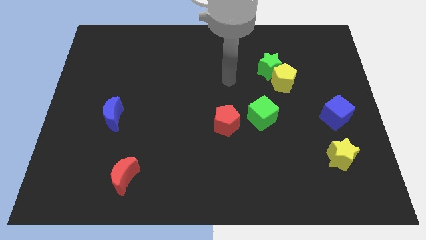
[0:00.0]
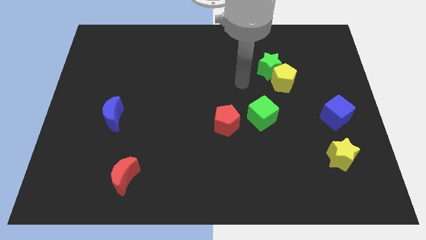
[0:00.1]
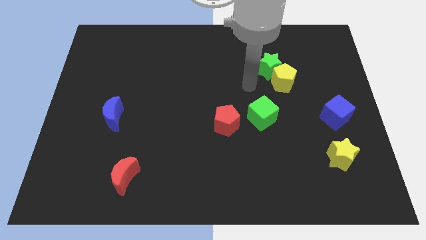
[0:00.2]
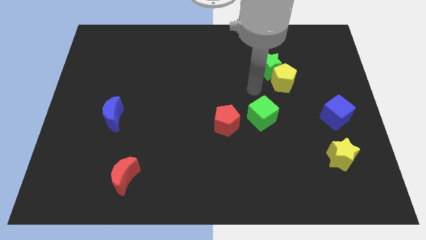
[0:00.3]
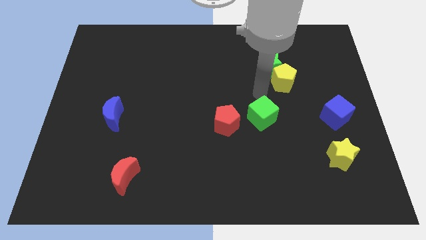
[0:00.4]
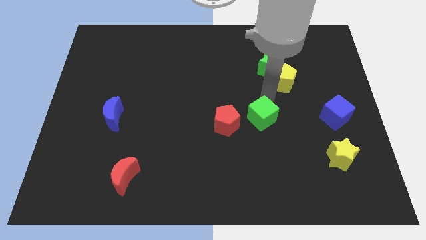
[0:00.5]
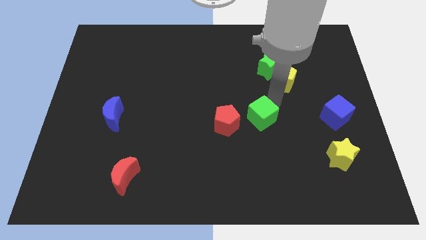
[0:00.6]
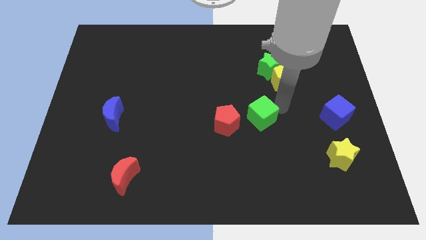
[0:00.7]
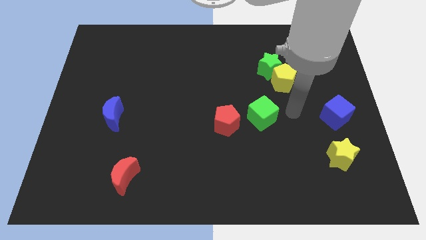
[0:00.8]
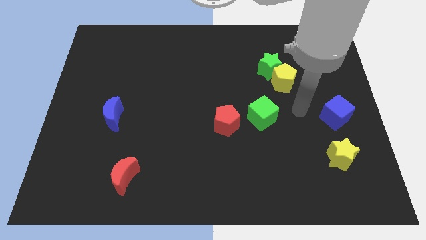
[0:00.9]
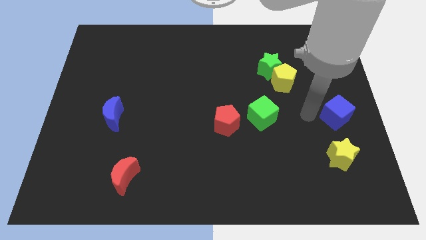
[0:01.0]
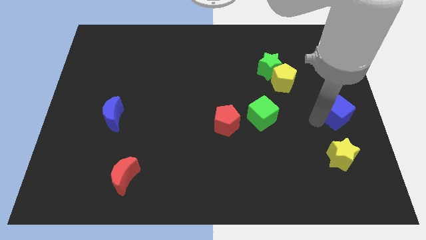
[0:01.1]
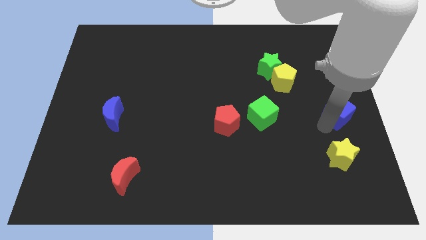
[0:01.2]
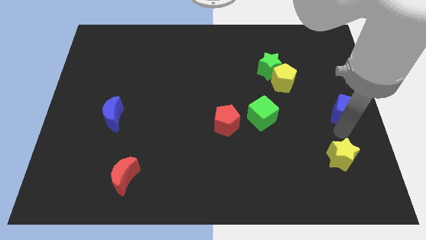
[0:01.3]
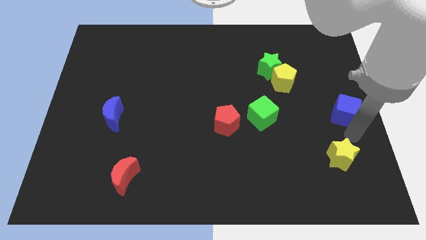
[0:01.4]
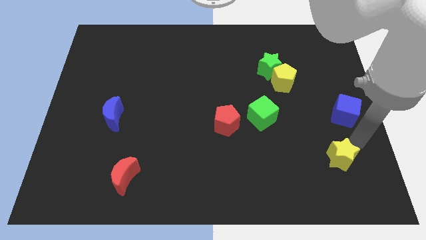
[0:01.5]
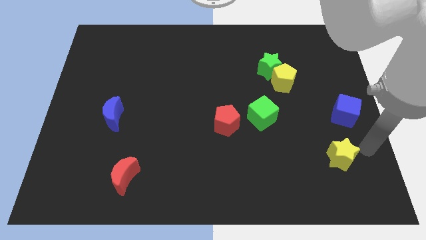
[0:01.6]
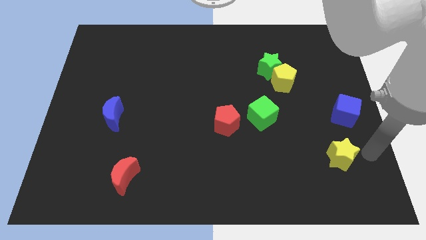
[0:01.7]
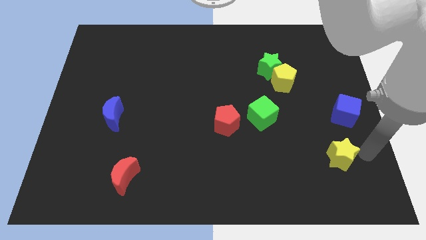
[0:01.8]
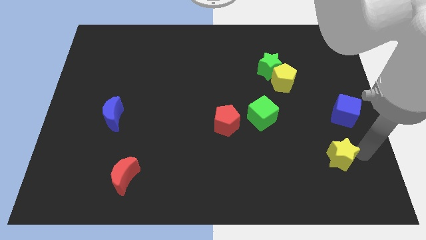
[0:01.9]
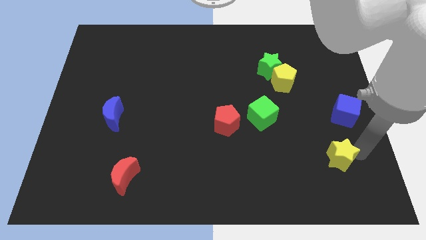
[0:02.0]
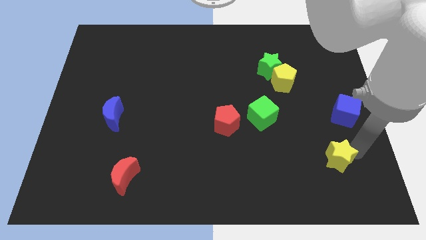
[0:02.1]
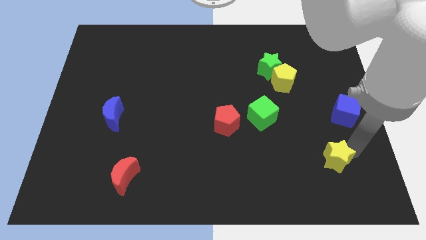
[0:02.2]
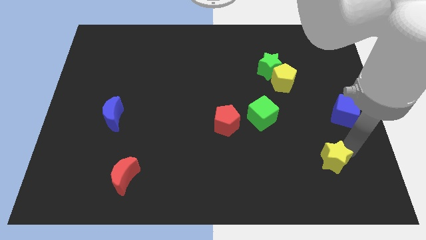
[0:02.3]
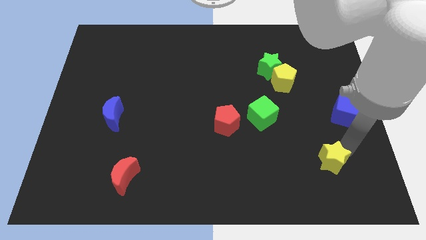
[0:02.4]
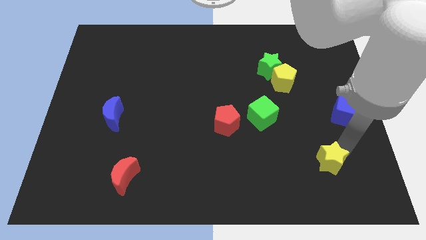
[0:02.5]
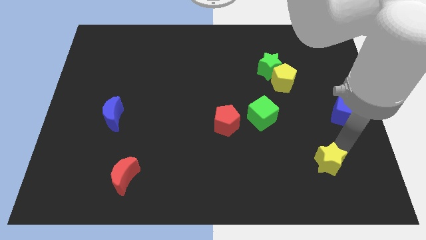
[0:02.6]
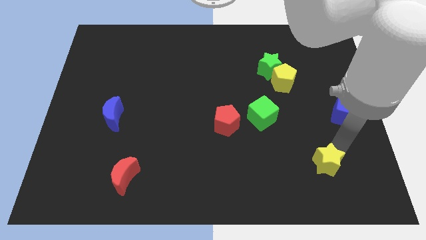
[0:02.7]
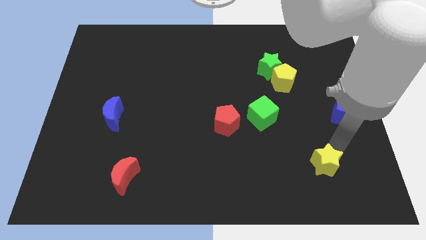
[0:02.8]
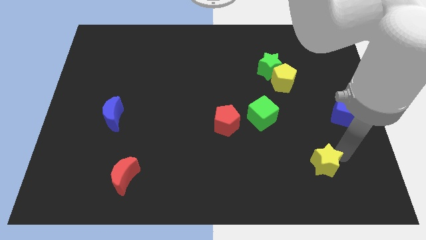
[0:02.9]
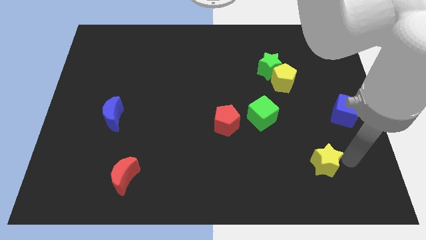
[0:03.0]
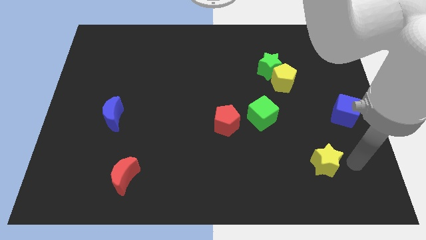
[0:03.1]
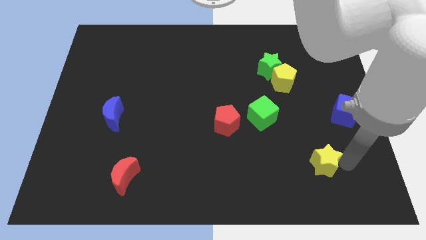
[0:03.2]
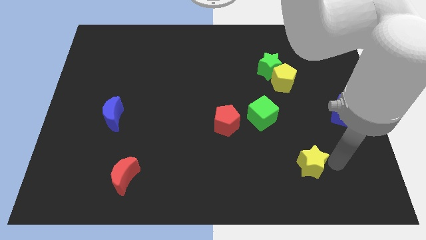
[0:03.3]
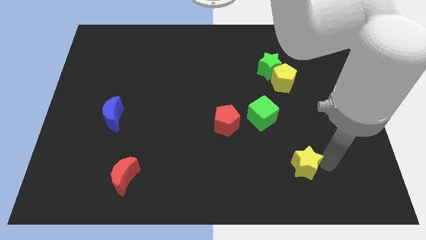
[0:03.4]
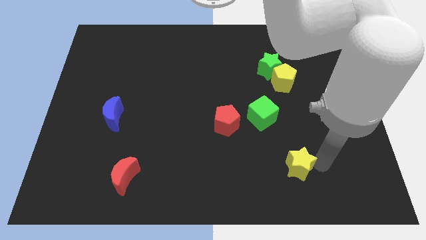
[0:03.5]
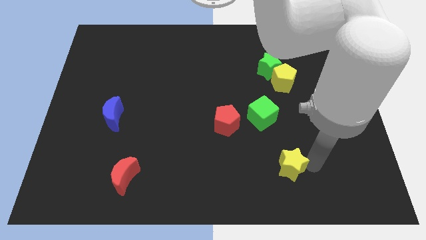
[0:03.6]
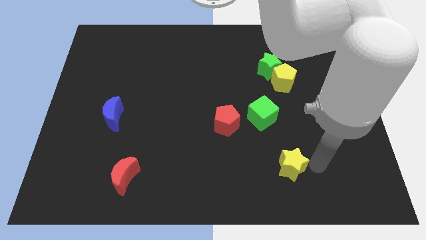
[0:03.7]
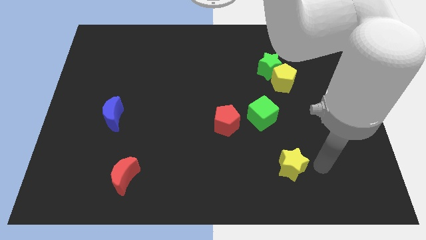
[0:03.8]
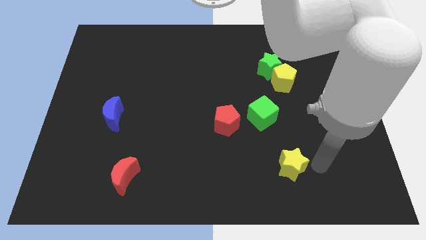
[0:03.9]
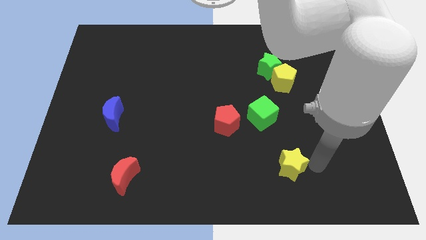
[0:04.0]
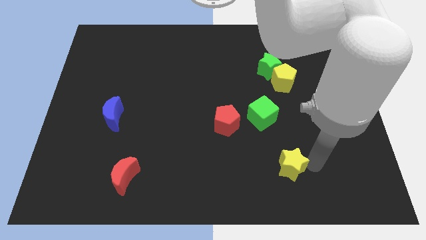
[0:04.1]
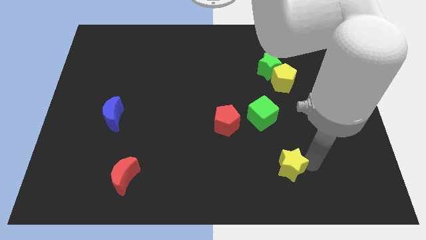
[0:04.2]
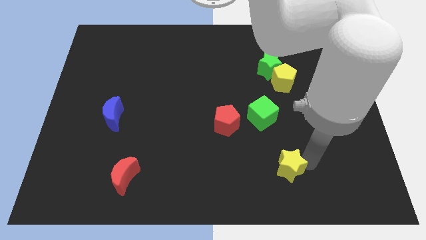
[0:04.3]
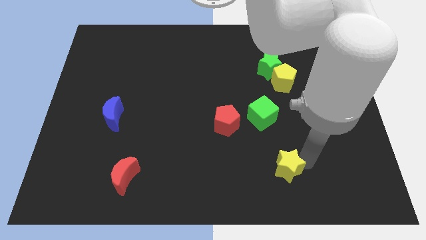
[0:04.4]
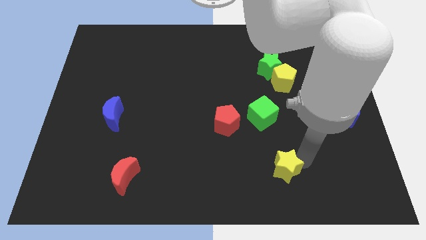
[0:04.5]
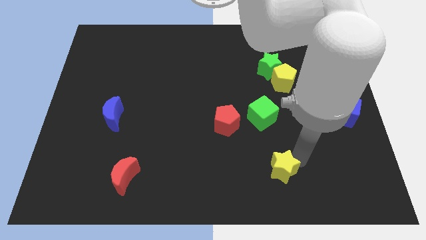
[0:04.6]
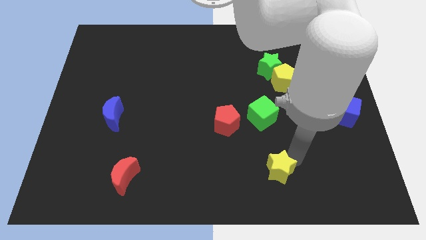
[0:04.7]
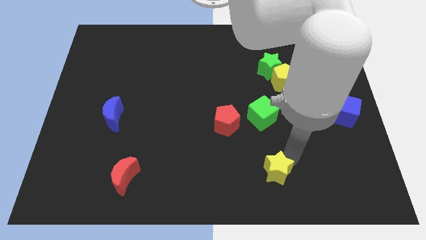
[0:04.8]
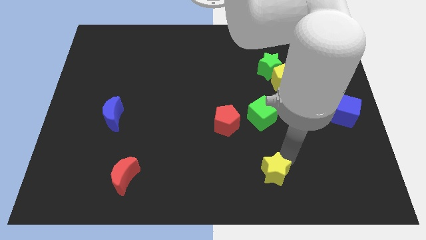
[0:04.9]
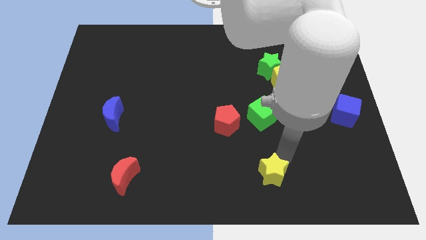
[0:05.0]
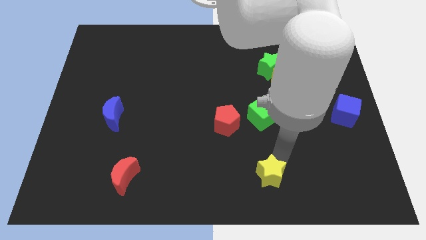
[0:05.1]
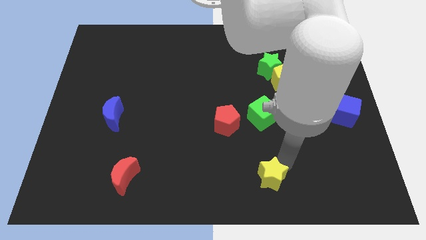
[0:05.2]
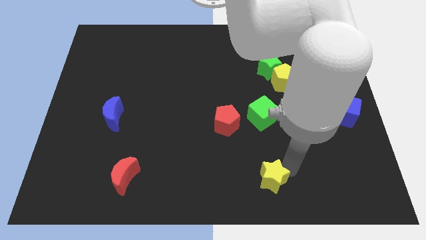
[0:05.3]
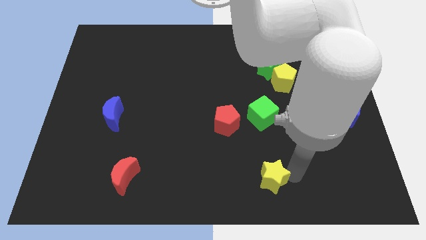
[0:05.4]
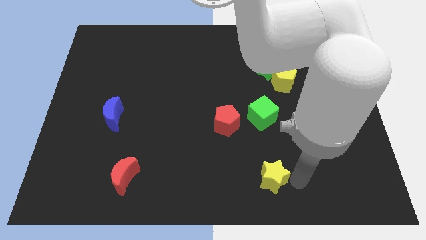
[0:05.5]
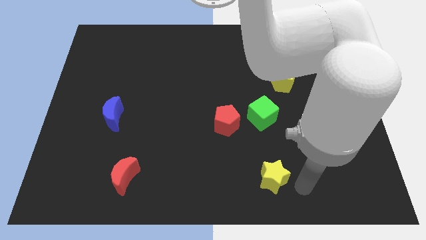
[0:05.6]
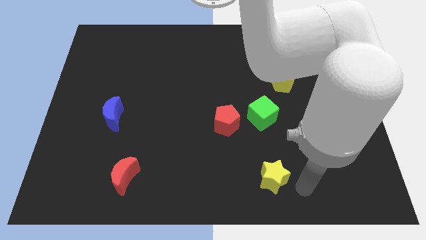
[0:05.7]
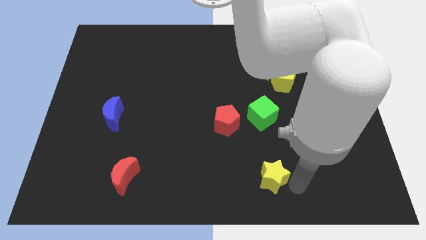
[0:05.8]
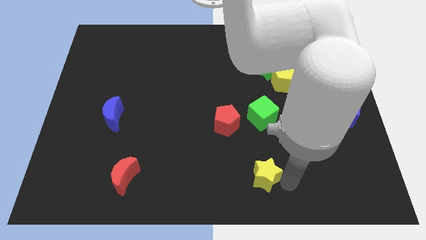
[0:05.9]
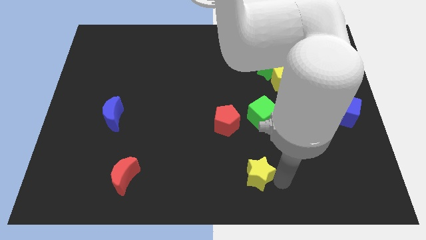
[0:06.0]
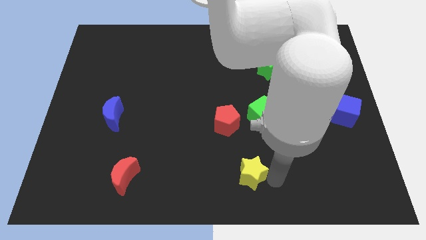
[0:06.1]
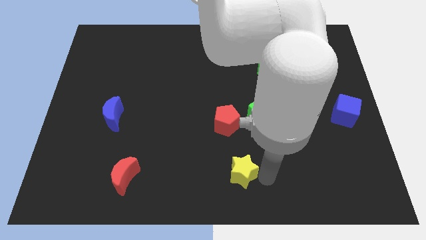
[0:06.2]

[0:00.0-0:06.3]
move the yellow star to the left

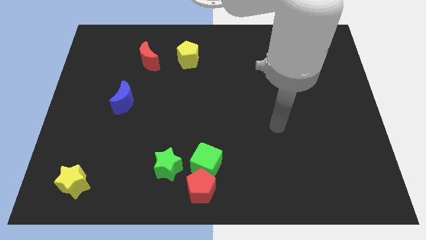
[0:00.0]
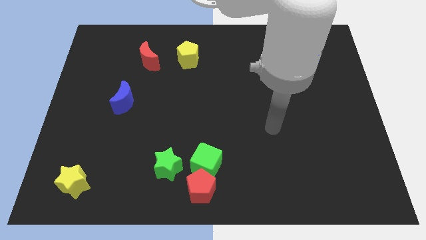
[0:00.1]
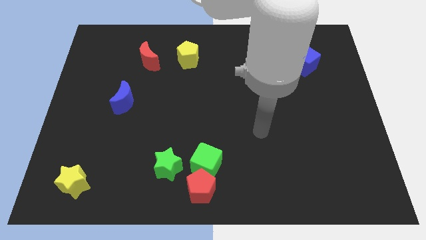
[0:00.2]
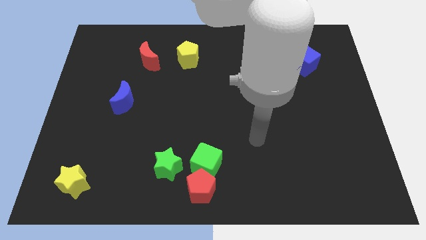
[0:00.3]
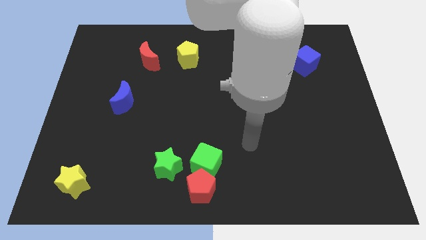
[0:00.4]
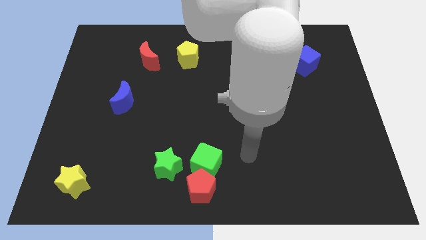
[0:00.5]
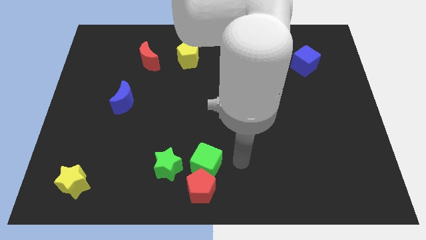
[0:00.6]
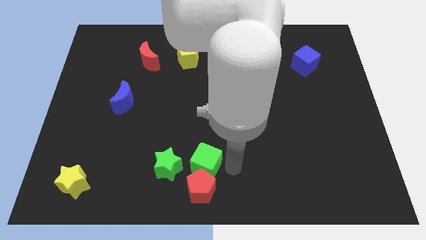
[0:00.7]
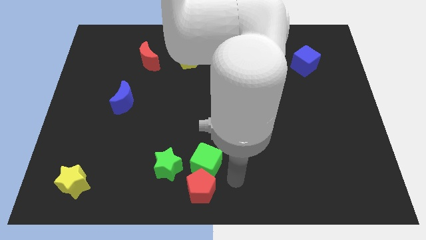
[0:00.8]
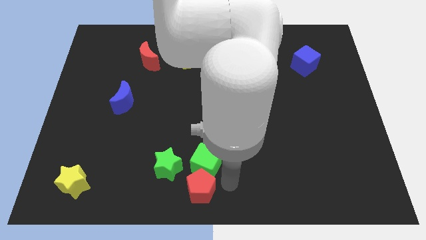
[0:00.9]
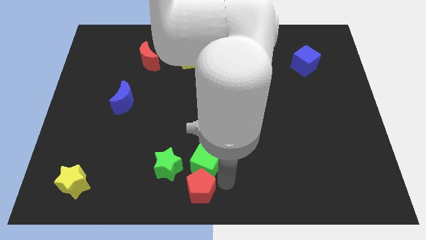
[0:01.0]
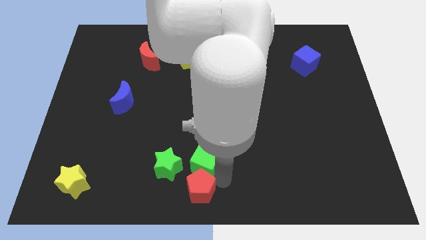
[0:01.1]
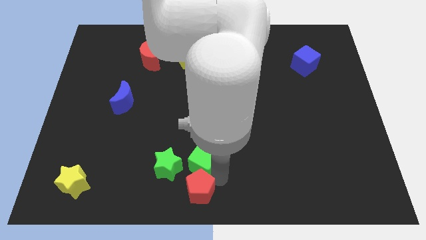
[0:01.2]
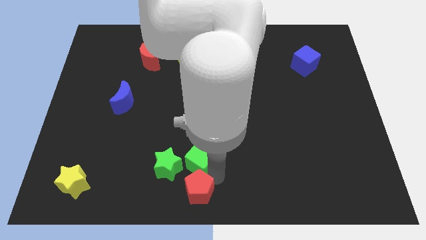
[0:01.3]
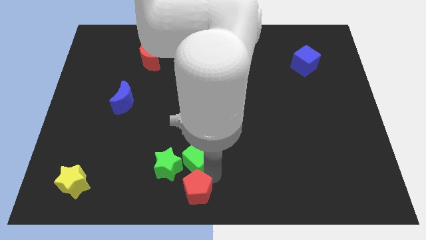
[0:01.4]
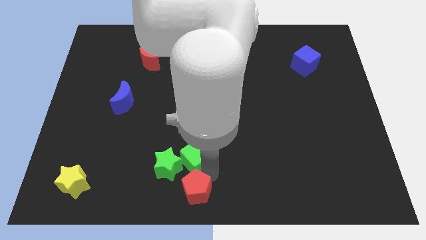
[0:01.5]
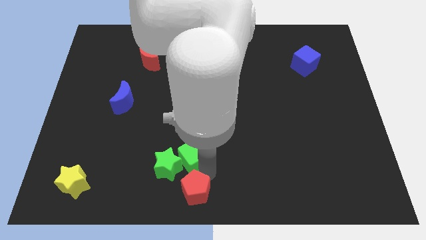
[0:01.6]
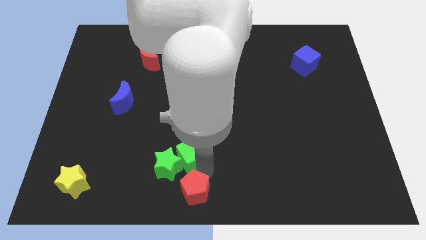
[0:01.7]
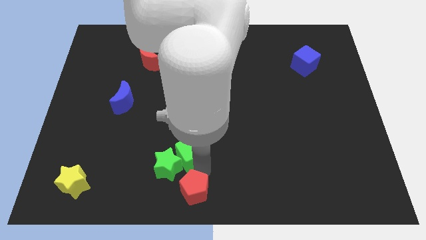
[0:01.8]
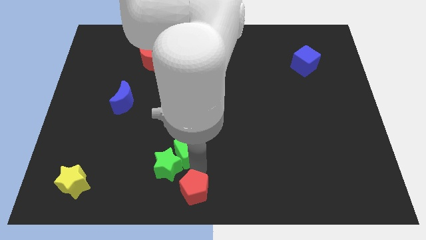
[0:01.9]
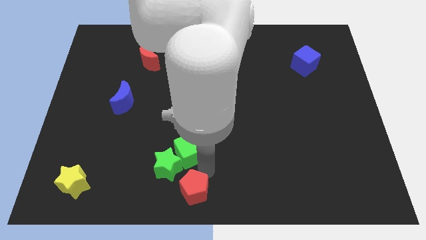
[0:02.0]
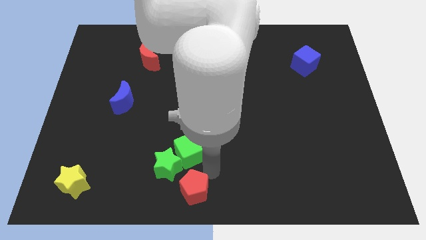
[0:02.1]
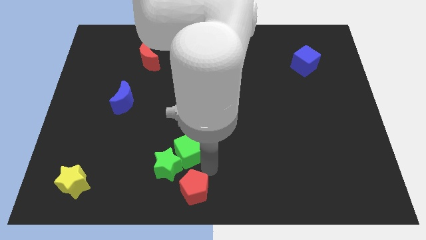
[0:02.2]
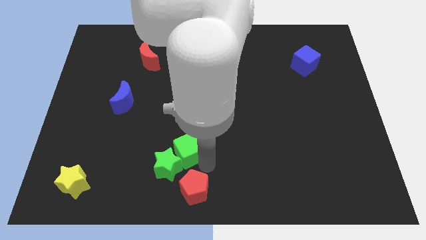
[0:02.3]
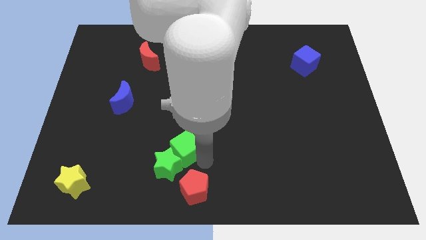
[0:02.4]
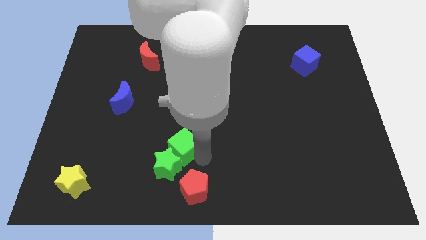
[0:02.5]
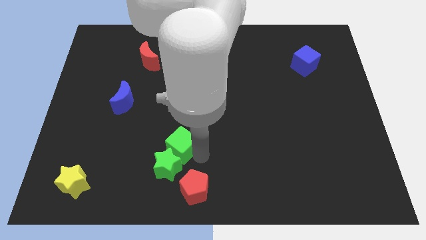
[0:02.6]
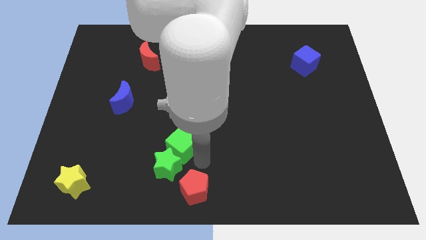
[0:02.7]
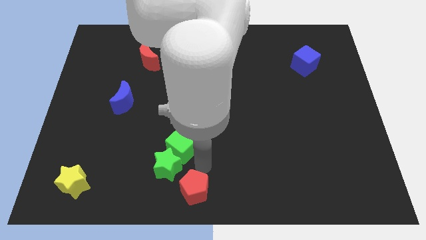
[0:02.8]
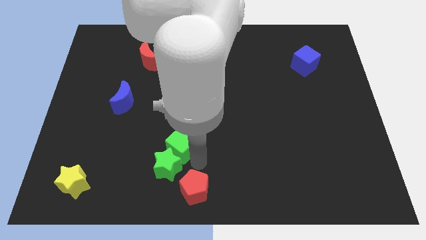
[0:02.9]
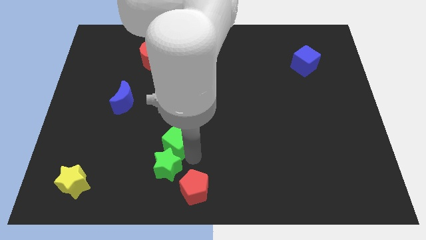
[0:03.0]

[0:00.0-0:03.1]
slightly move the green cube diagonally upwards and left
